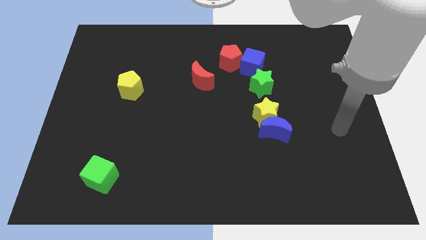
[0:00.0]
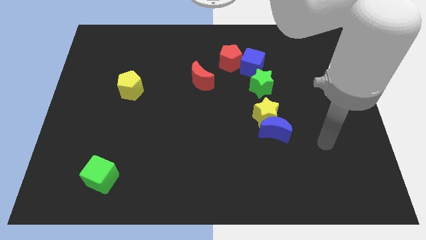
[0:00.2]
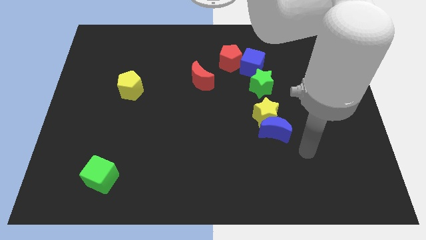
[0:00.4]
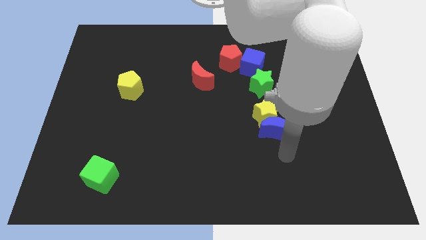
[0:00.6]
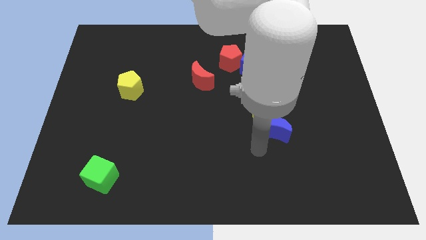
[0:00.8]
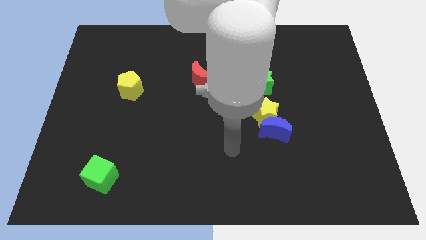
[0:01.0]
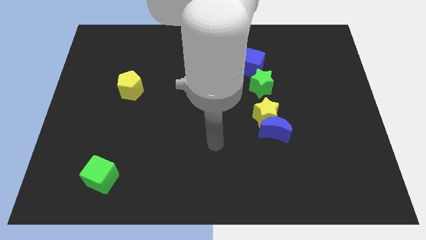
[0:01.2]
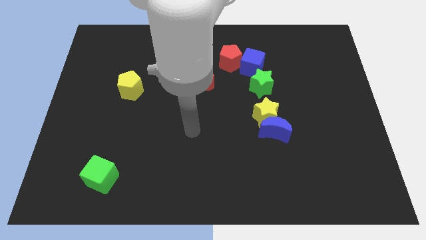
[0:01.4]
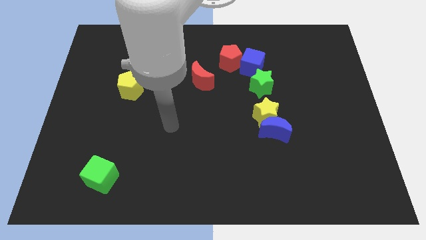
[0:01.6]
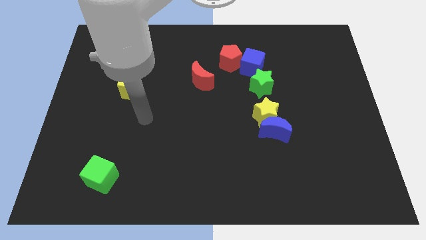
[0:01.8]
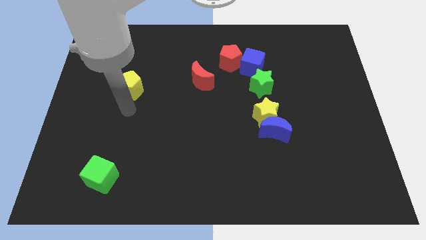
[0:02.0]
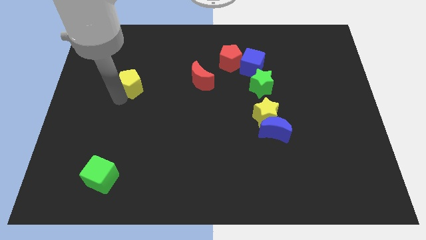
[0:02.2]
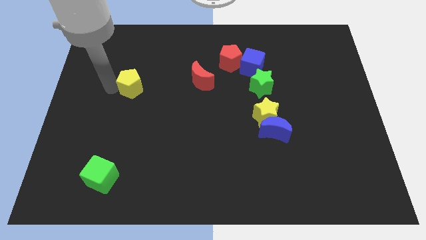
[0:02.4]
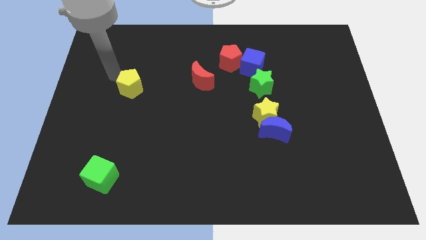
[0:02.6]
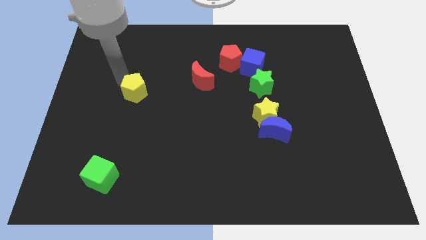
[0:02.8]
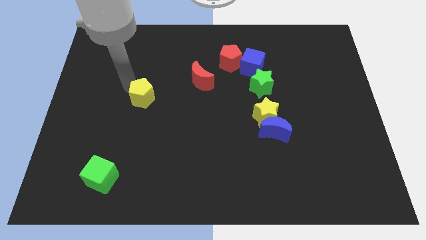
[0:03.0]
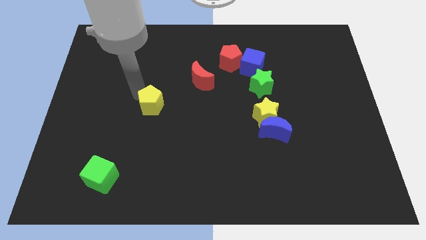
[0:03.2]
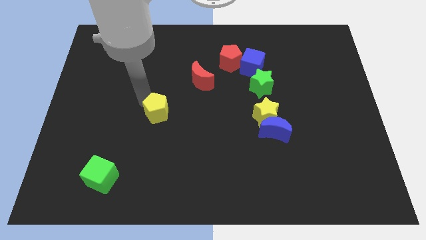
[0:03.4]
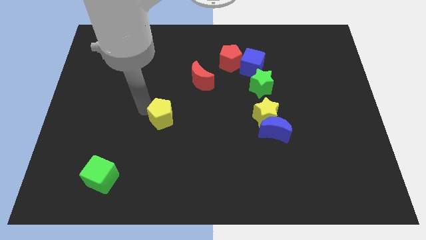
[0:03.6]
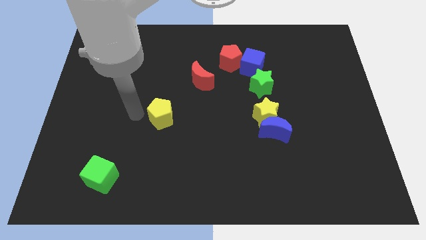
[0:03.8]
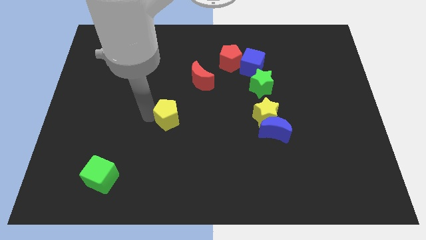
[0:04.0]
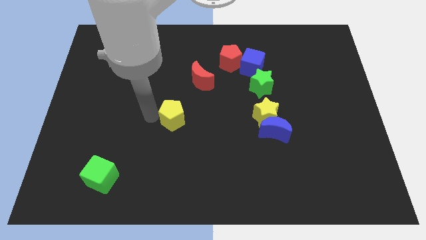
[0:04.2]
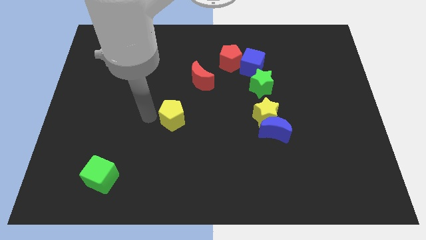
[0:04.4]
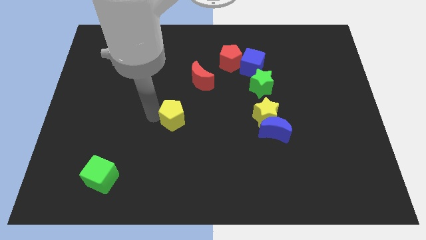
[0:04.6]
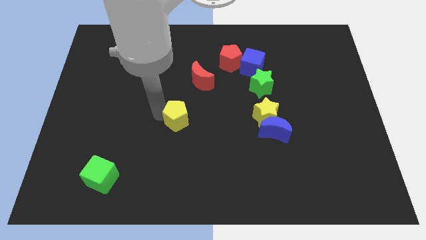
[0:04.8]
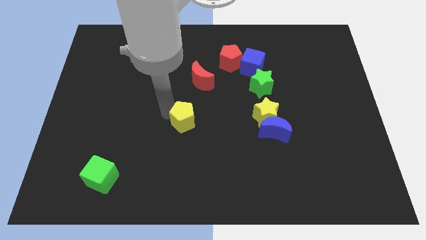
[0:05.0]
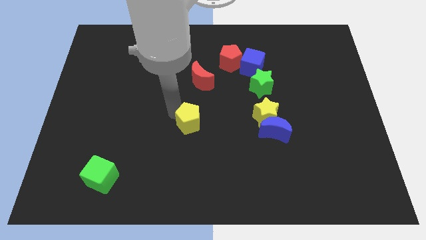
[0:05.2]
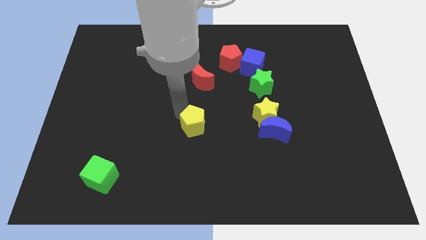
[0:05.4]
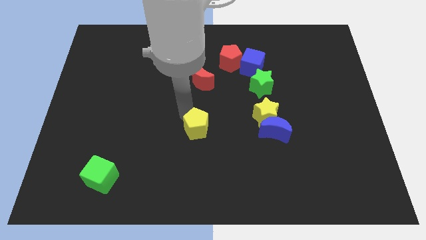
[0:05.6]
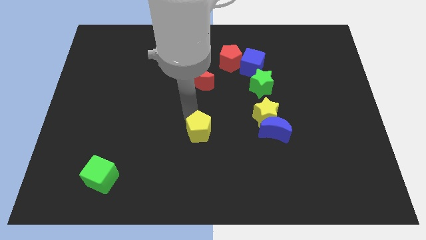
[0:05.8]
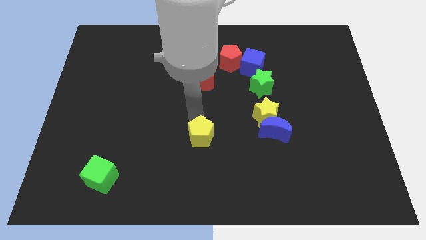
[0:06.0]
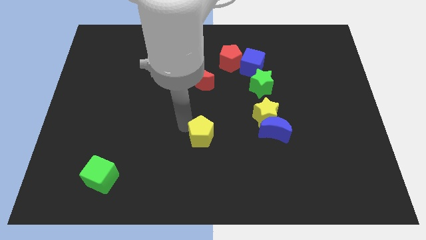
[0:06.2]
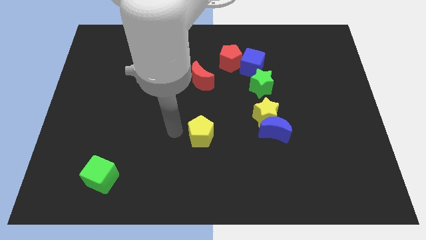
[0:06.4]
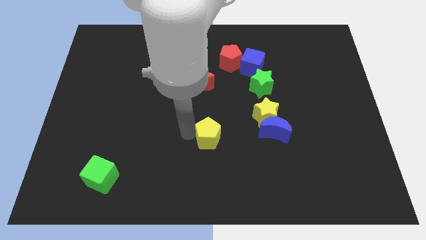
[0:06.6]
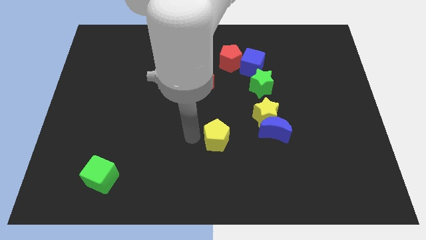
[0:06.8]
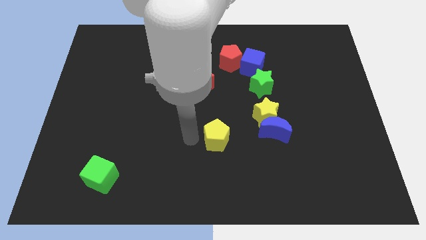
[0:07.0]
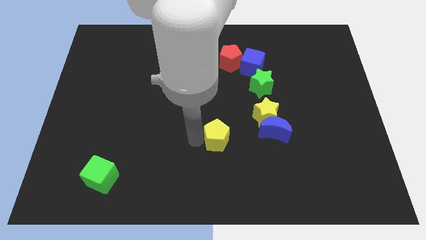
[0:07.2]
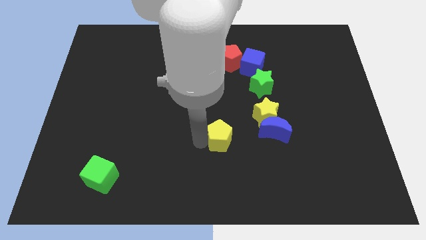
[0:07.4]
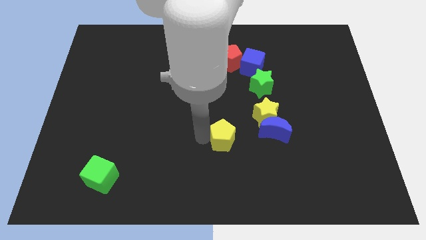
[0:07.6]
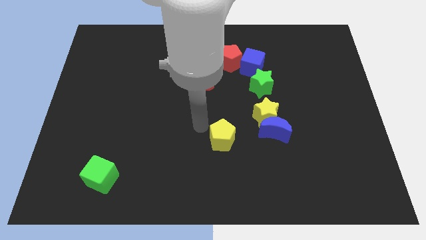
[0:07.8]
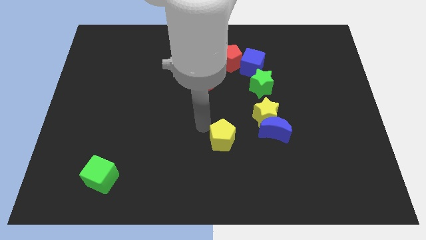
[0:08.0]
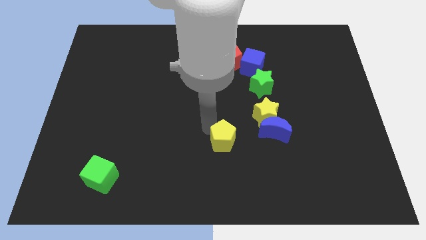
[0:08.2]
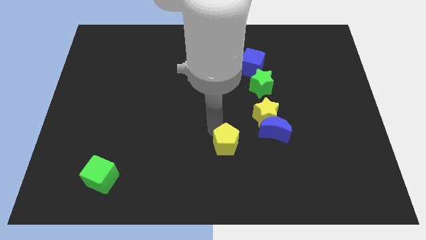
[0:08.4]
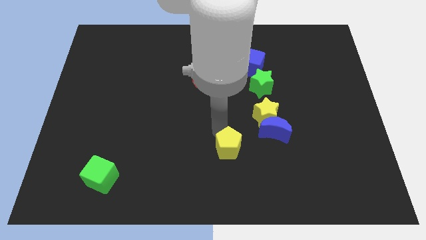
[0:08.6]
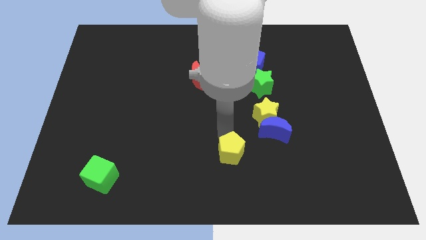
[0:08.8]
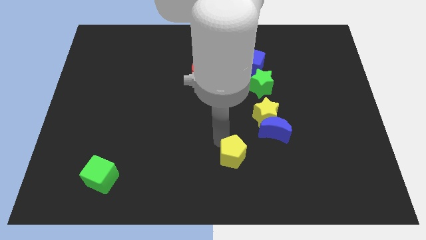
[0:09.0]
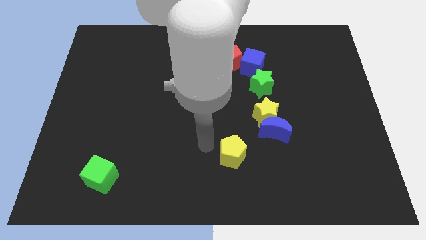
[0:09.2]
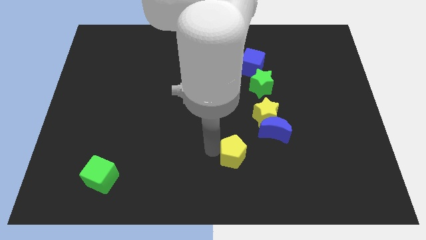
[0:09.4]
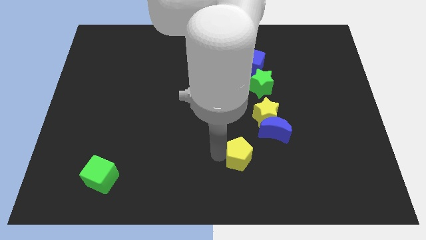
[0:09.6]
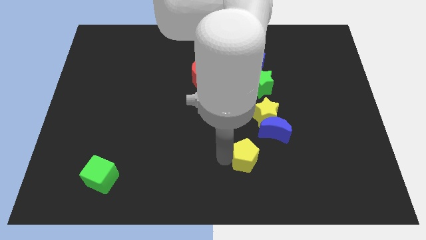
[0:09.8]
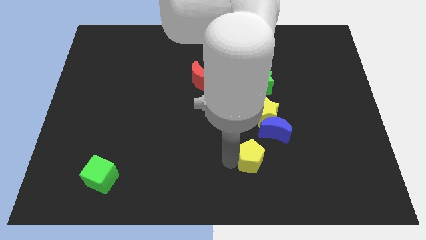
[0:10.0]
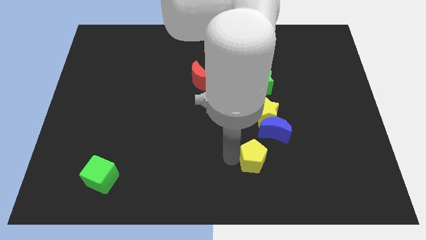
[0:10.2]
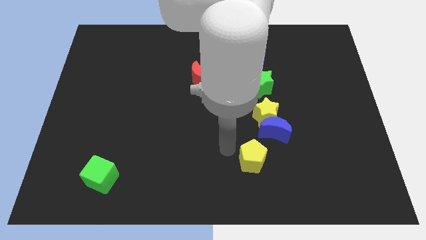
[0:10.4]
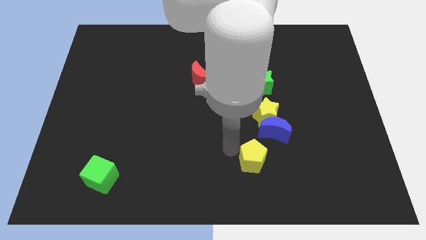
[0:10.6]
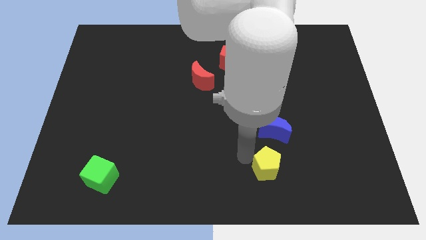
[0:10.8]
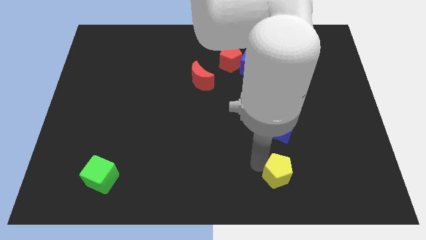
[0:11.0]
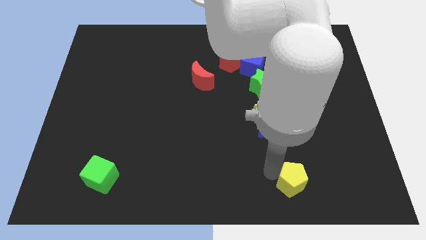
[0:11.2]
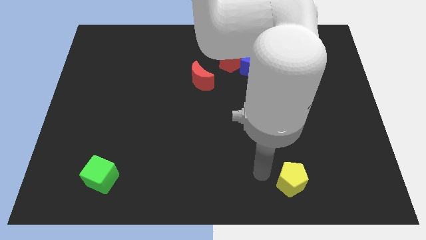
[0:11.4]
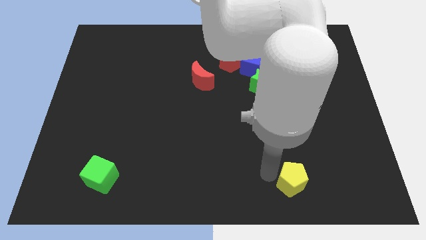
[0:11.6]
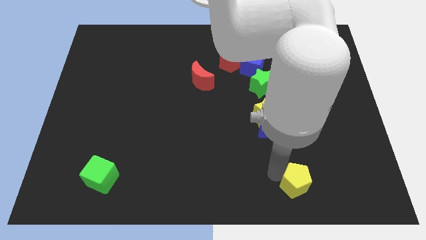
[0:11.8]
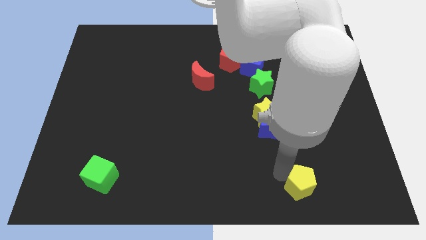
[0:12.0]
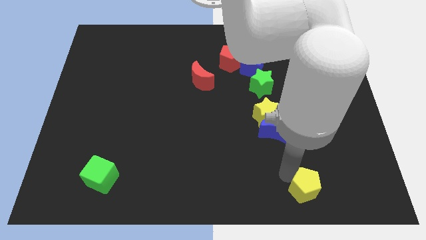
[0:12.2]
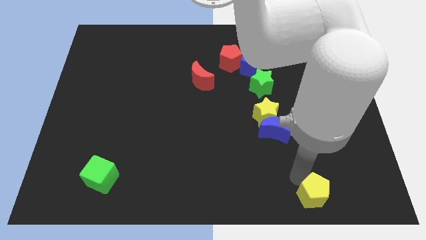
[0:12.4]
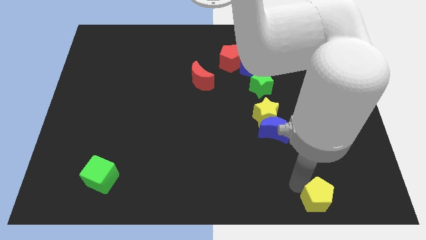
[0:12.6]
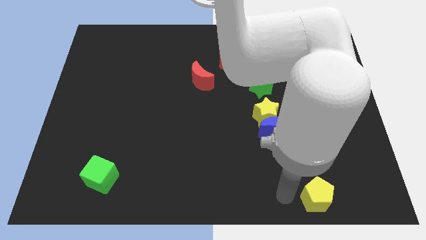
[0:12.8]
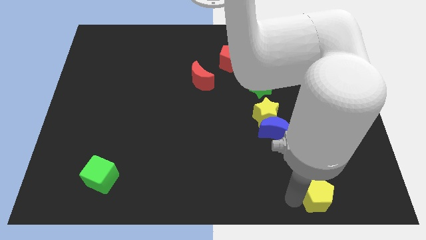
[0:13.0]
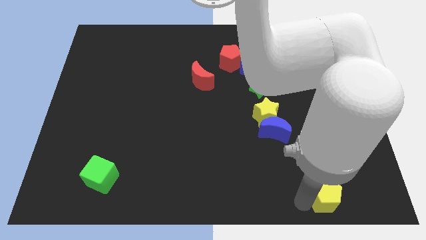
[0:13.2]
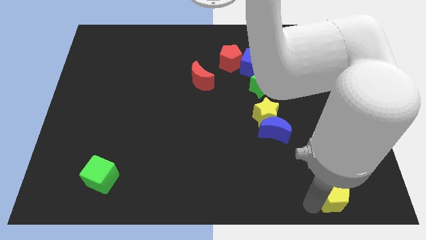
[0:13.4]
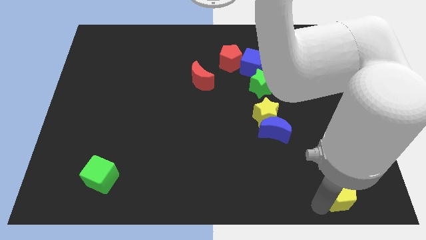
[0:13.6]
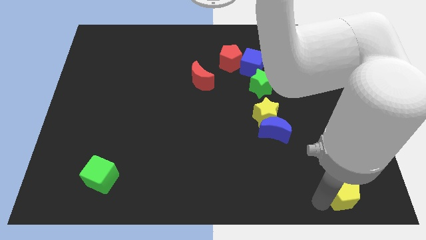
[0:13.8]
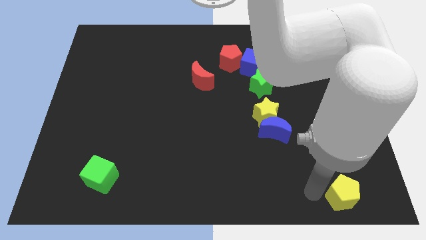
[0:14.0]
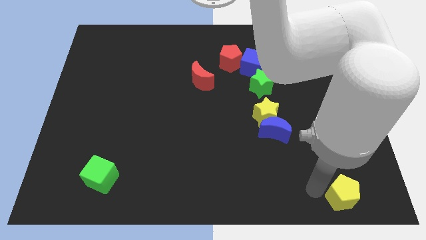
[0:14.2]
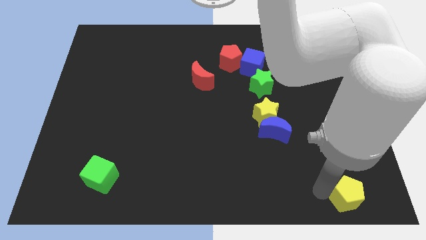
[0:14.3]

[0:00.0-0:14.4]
put the yellow pentagon to the lower right corner
